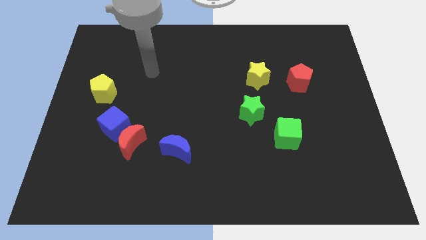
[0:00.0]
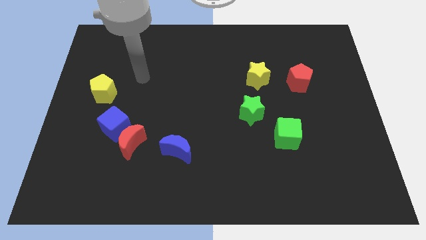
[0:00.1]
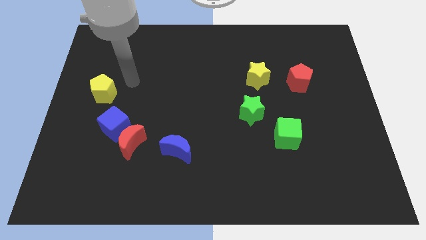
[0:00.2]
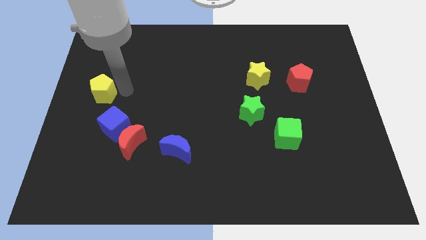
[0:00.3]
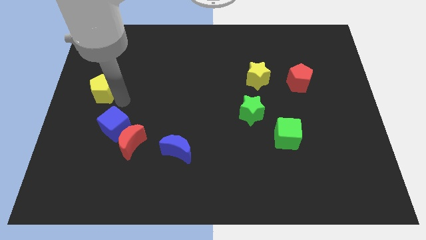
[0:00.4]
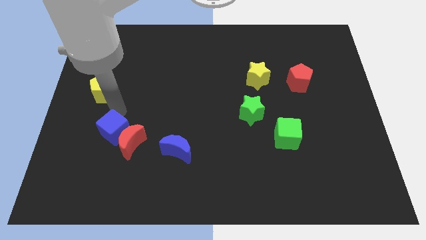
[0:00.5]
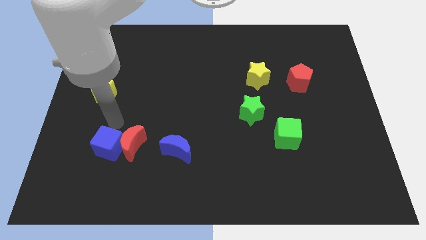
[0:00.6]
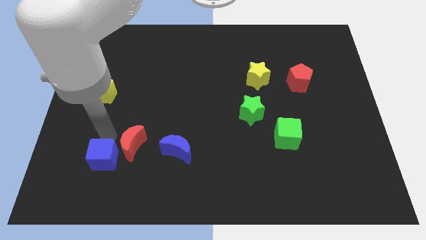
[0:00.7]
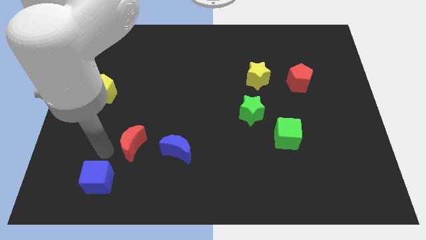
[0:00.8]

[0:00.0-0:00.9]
pull the red moon apart from the blue cube

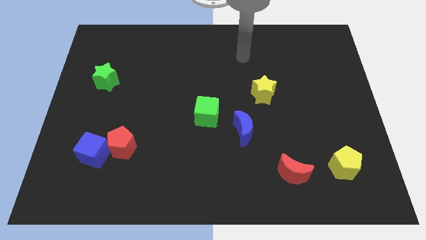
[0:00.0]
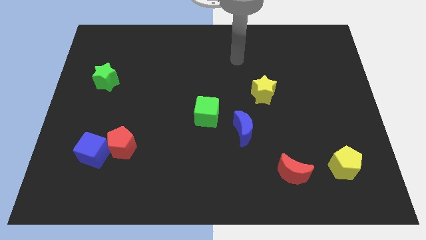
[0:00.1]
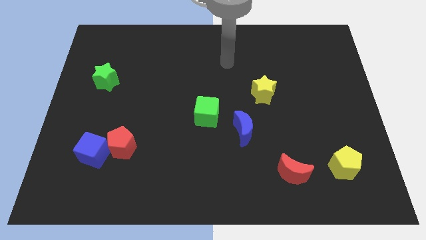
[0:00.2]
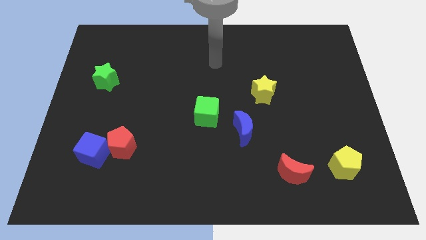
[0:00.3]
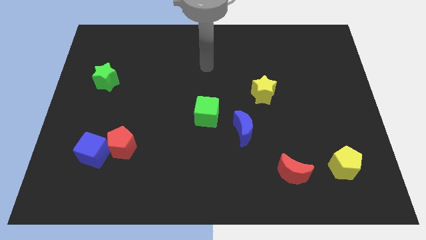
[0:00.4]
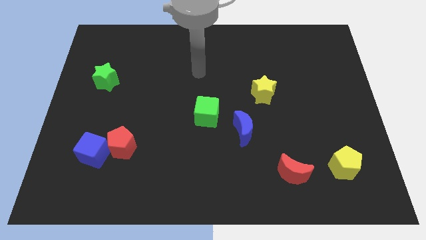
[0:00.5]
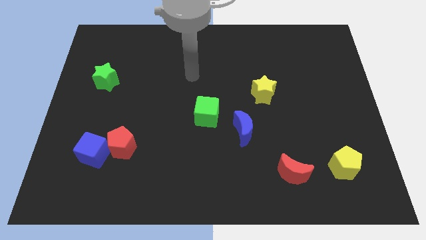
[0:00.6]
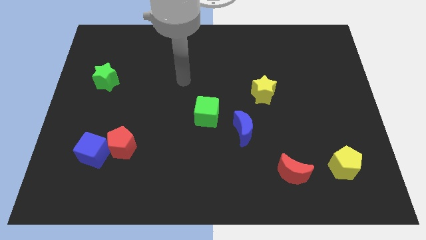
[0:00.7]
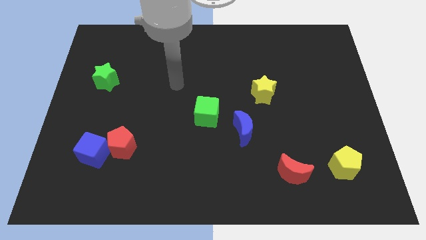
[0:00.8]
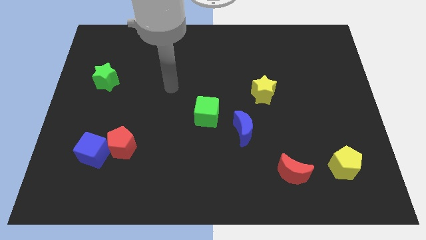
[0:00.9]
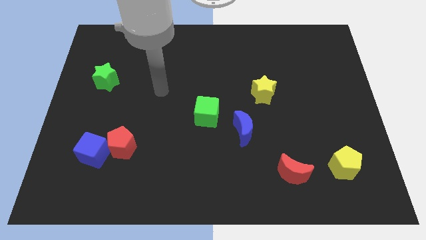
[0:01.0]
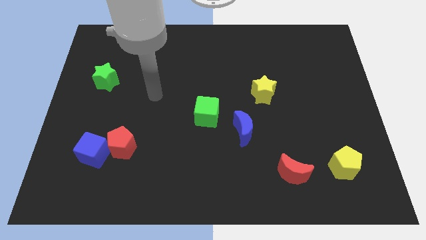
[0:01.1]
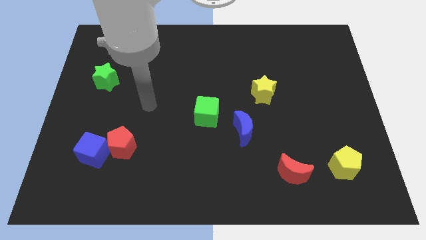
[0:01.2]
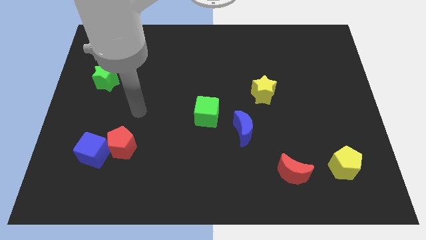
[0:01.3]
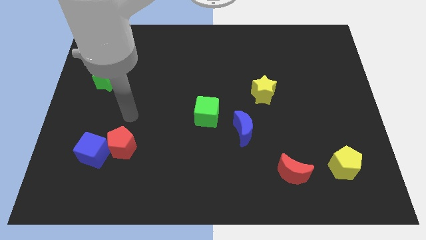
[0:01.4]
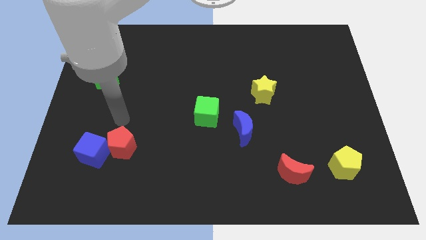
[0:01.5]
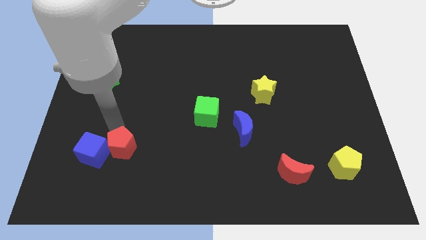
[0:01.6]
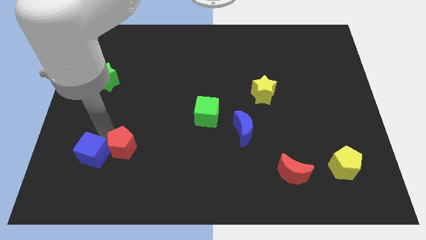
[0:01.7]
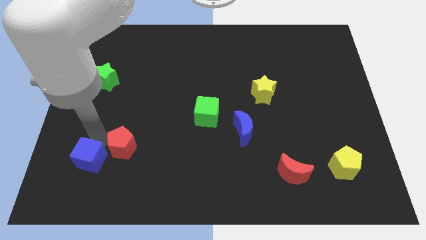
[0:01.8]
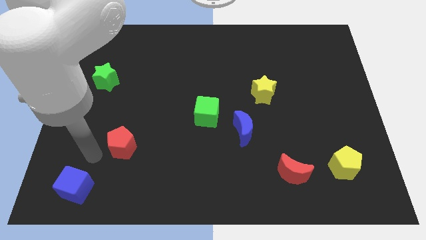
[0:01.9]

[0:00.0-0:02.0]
separate the red pentagon from the blue cube

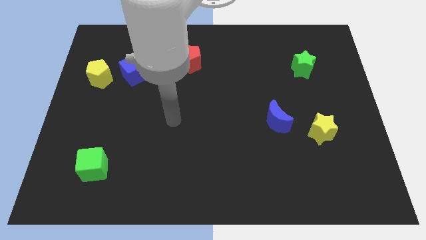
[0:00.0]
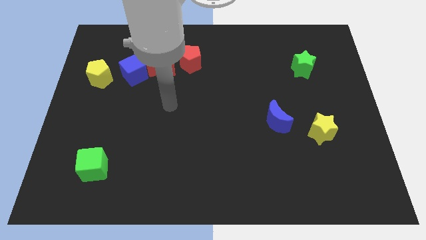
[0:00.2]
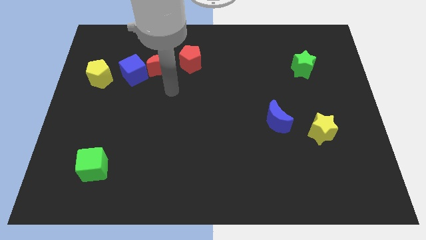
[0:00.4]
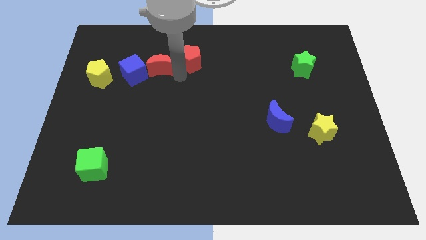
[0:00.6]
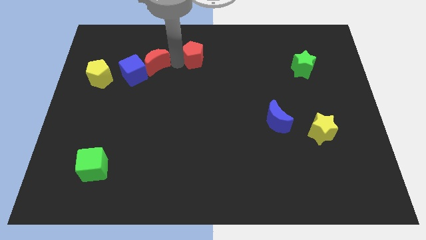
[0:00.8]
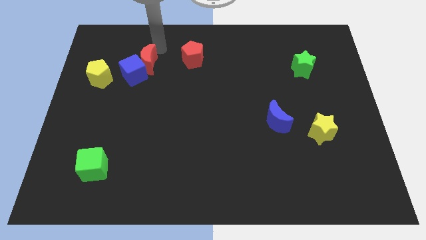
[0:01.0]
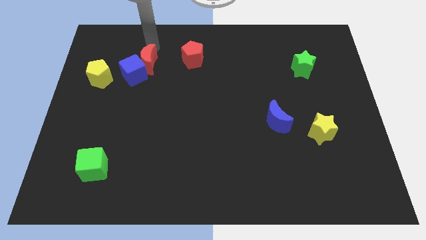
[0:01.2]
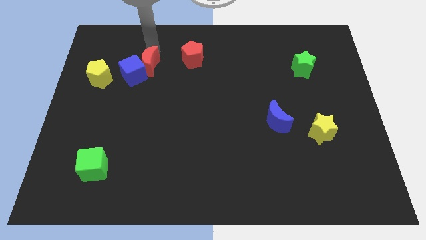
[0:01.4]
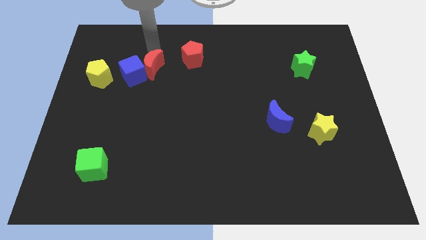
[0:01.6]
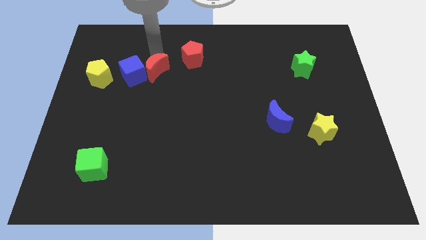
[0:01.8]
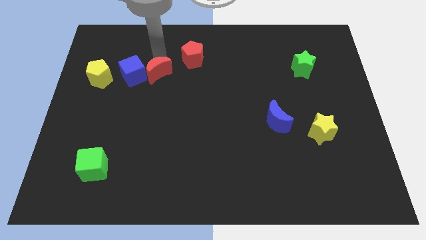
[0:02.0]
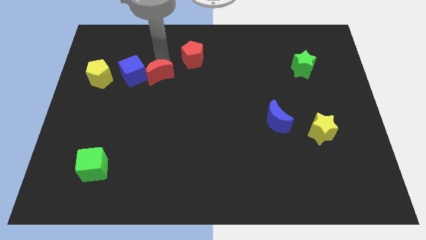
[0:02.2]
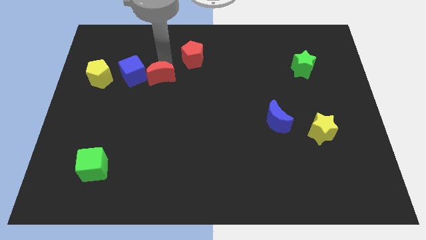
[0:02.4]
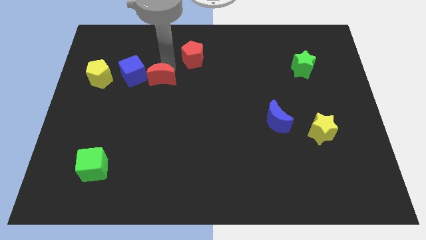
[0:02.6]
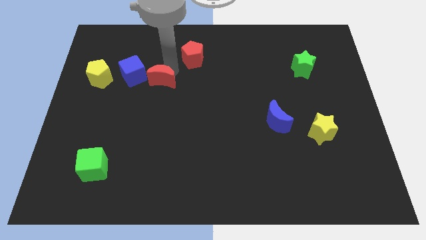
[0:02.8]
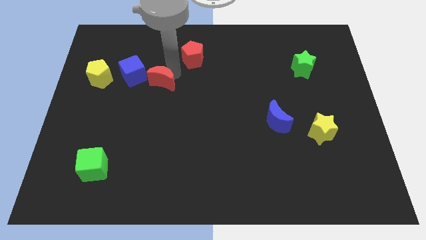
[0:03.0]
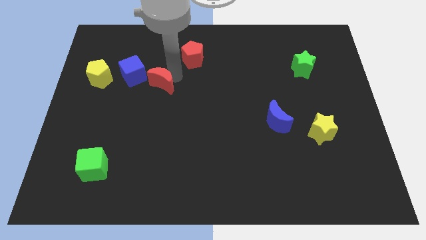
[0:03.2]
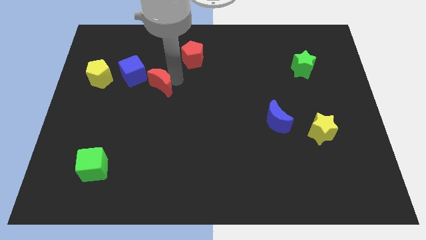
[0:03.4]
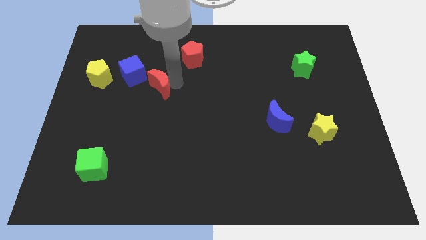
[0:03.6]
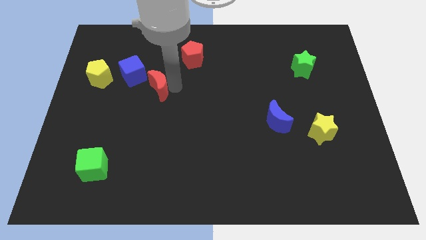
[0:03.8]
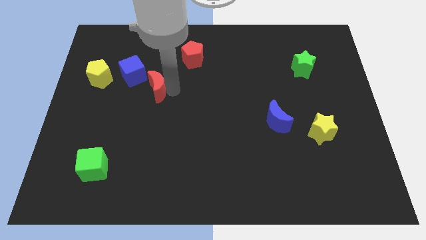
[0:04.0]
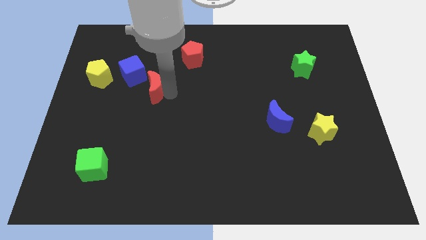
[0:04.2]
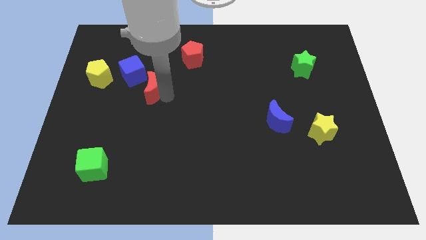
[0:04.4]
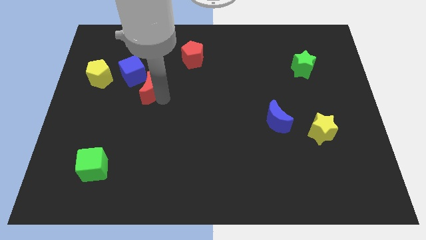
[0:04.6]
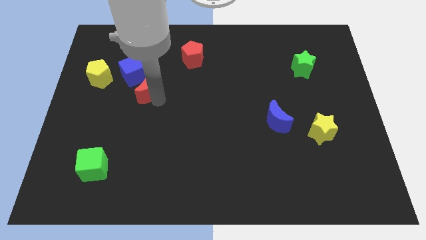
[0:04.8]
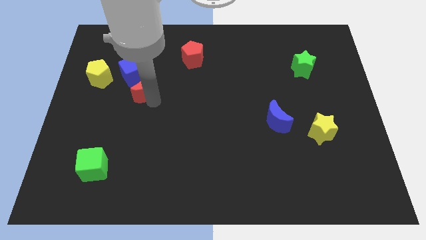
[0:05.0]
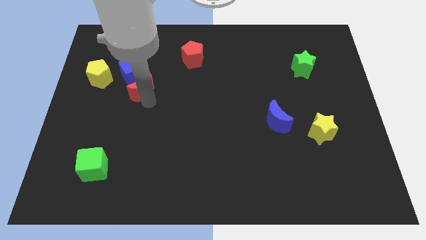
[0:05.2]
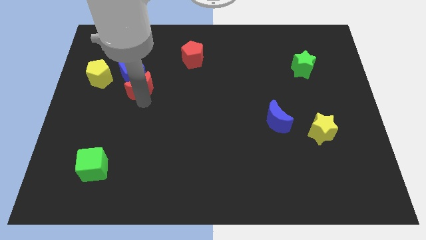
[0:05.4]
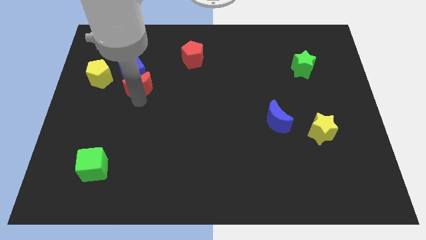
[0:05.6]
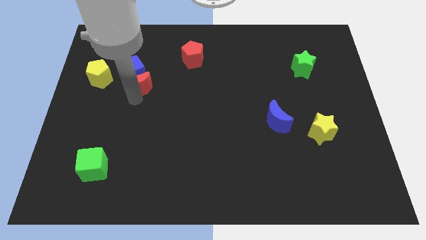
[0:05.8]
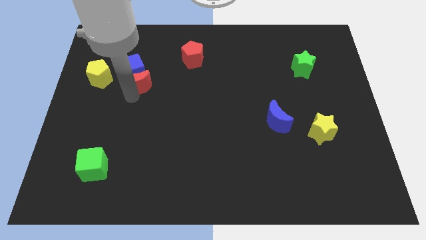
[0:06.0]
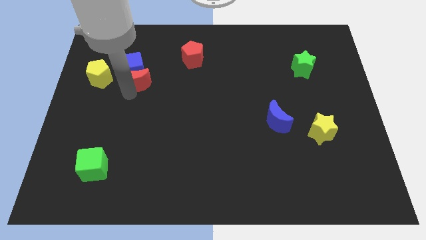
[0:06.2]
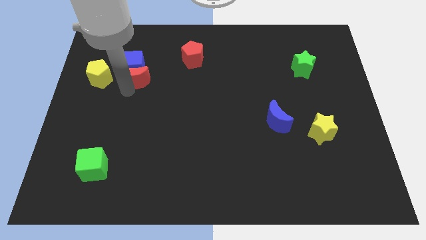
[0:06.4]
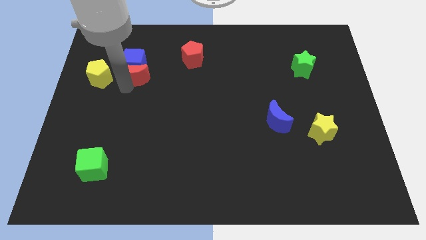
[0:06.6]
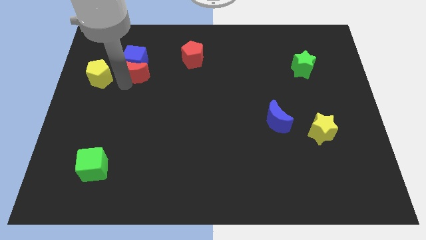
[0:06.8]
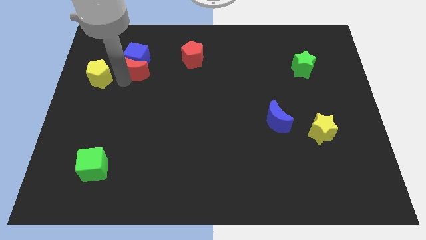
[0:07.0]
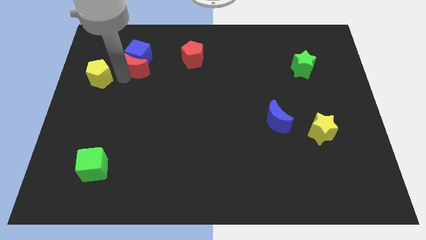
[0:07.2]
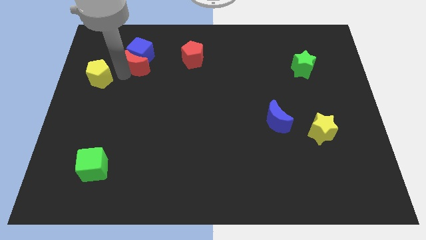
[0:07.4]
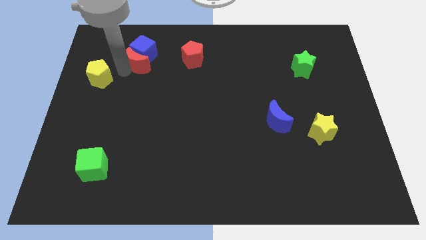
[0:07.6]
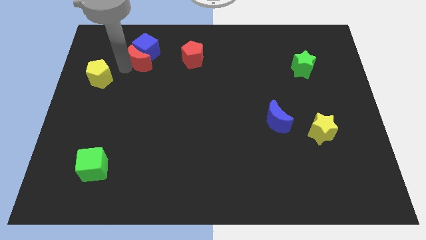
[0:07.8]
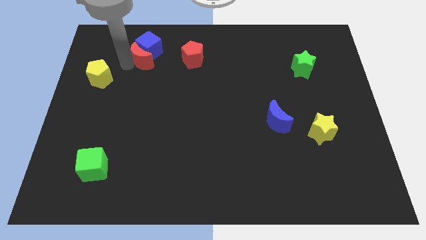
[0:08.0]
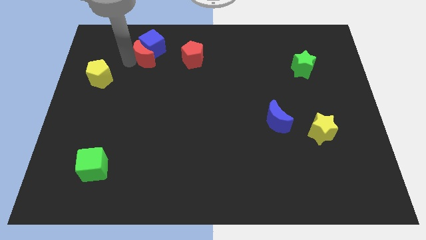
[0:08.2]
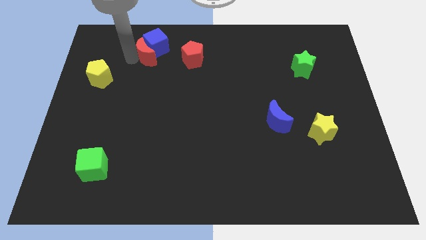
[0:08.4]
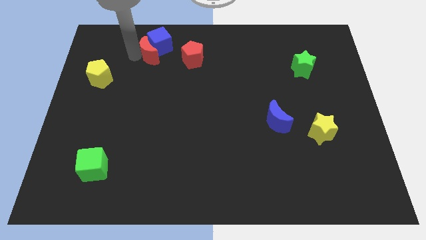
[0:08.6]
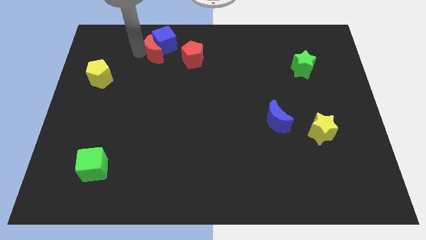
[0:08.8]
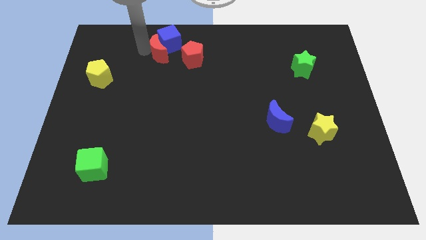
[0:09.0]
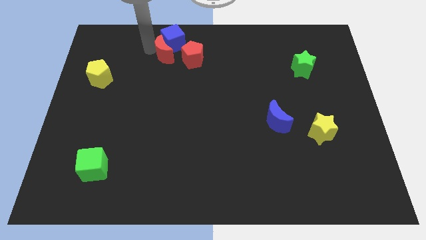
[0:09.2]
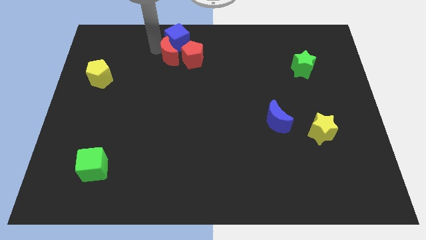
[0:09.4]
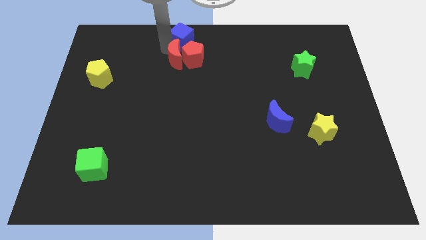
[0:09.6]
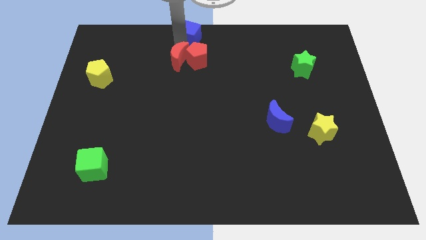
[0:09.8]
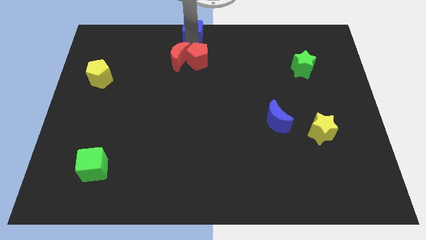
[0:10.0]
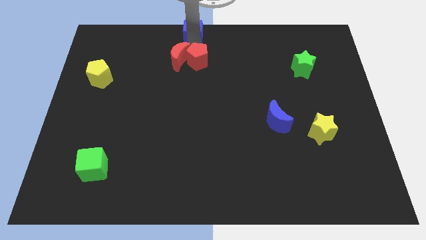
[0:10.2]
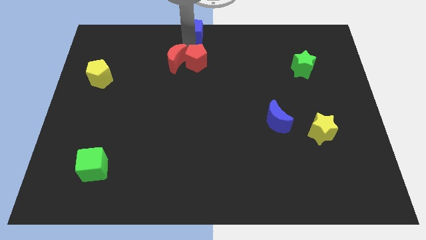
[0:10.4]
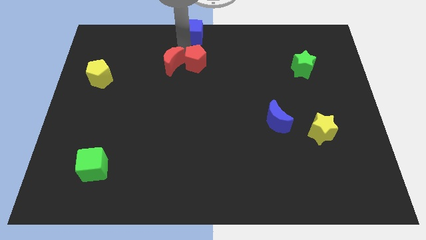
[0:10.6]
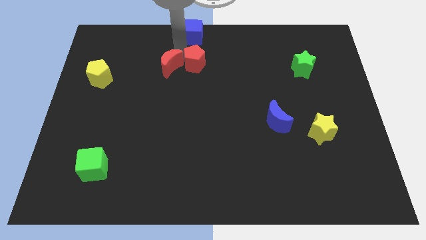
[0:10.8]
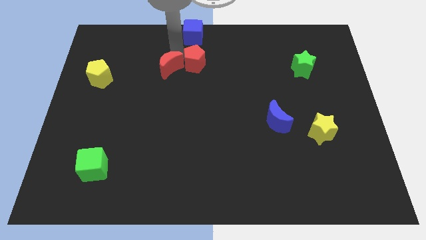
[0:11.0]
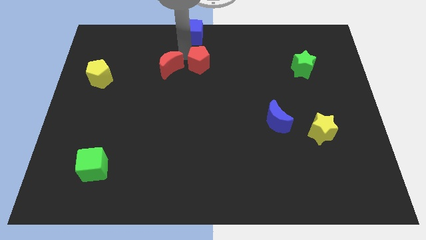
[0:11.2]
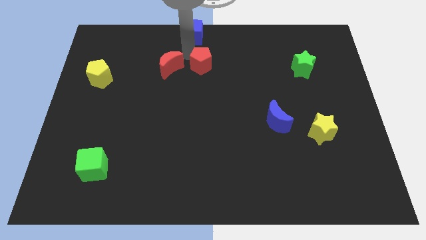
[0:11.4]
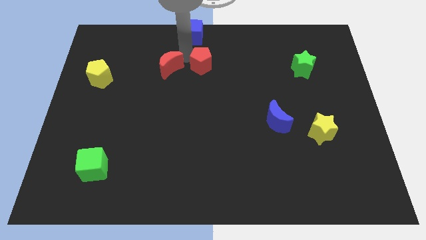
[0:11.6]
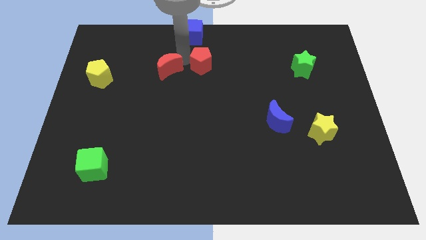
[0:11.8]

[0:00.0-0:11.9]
move the red moon away from the blue cube and red pentagon

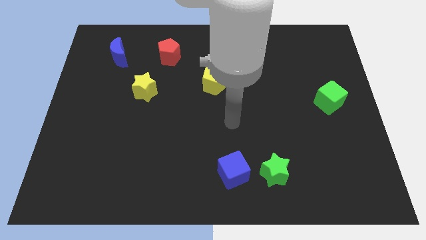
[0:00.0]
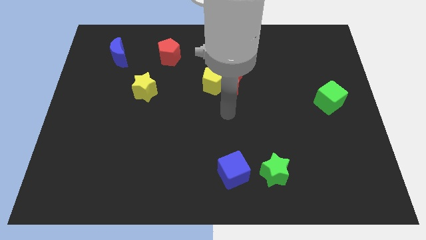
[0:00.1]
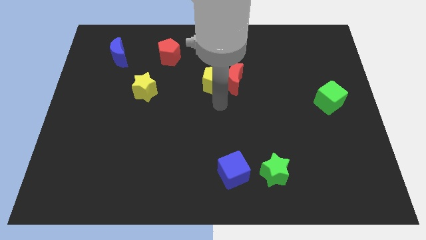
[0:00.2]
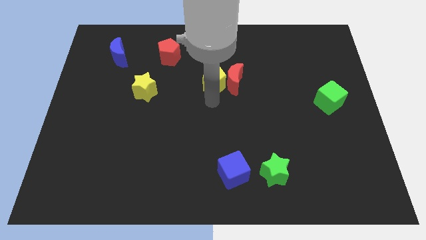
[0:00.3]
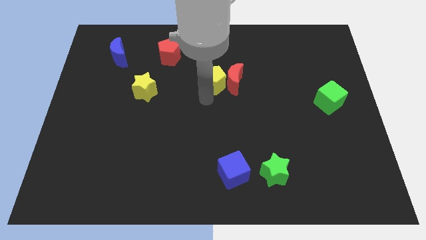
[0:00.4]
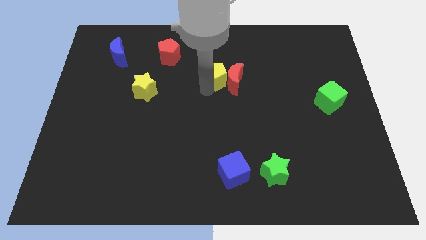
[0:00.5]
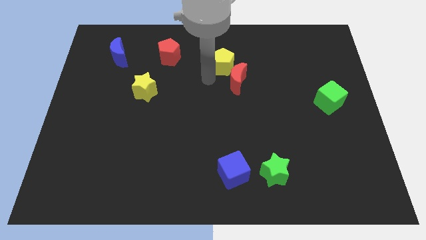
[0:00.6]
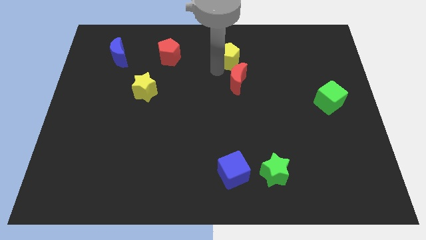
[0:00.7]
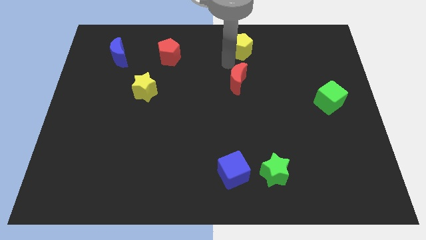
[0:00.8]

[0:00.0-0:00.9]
move the red moon away from the yellow pentagon
